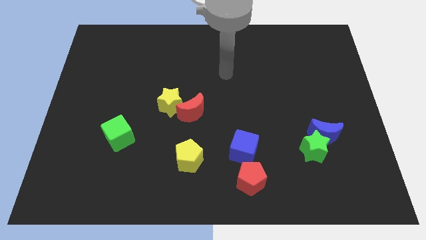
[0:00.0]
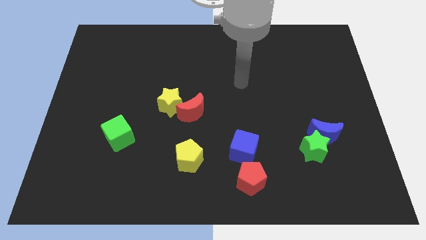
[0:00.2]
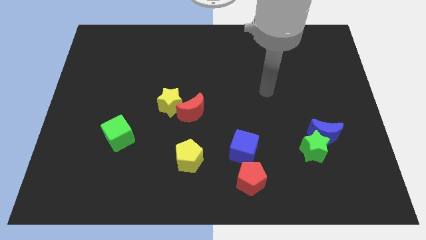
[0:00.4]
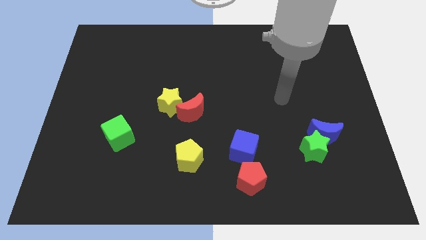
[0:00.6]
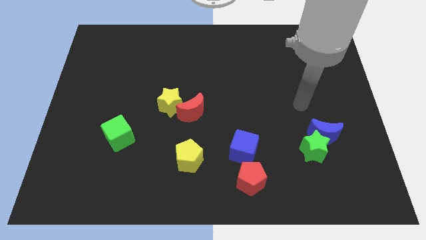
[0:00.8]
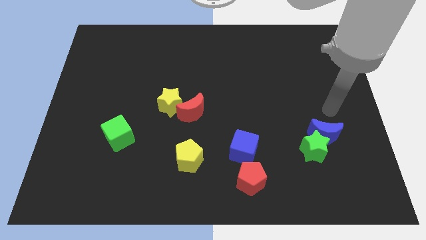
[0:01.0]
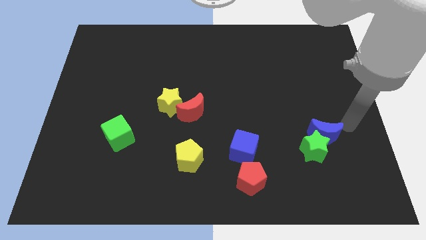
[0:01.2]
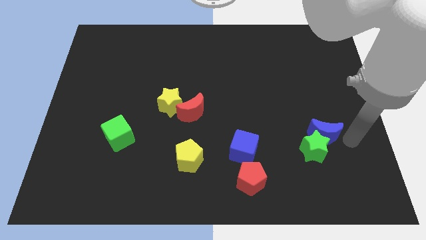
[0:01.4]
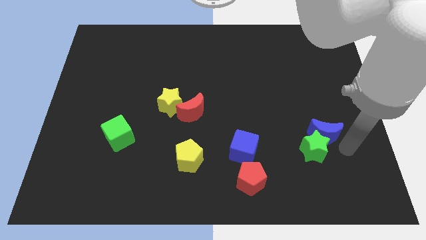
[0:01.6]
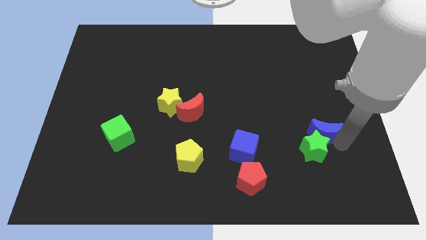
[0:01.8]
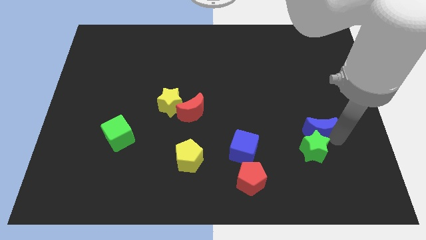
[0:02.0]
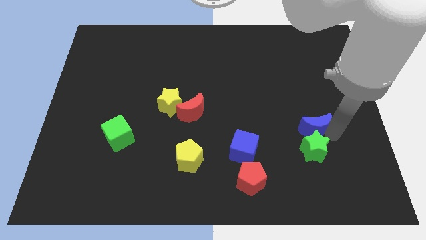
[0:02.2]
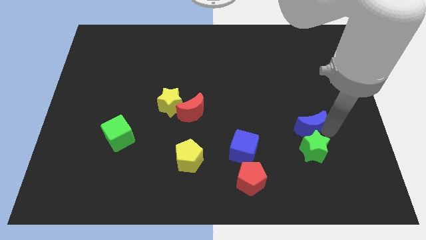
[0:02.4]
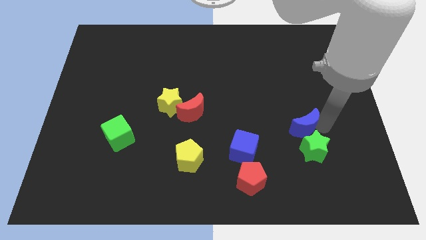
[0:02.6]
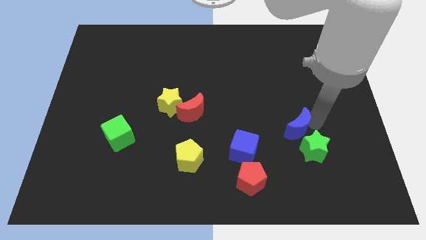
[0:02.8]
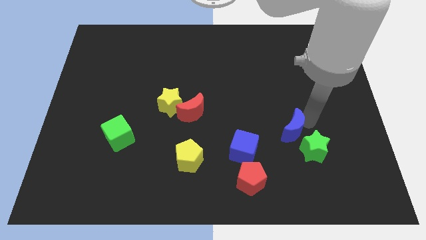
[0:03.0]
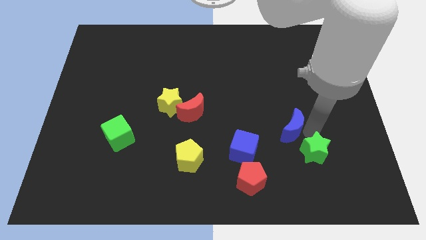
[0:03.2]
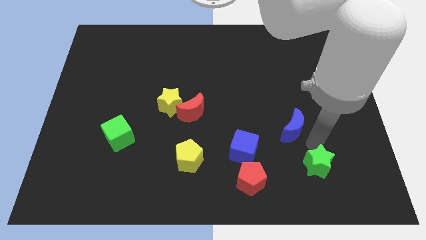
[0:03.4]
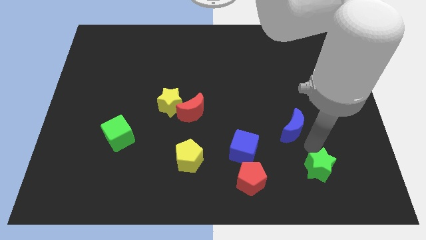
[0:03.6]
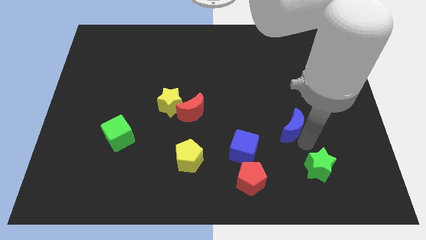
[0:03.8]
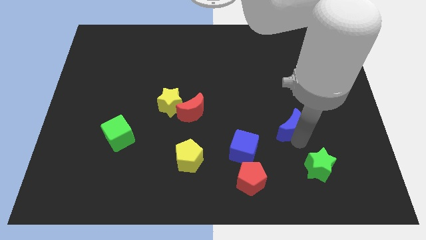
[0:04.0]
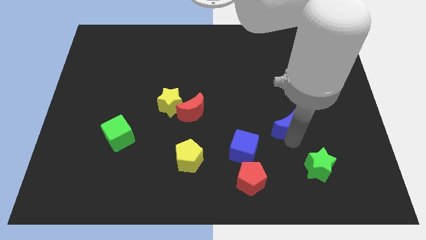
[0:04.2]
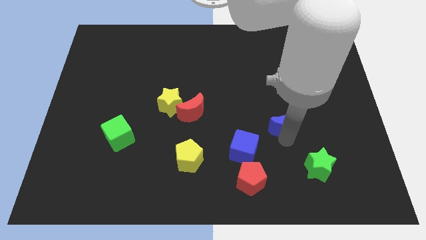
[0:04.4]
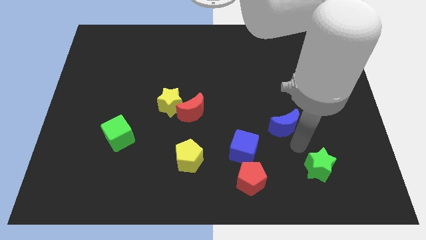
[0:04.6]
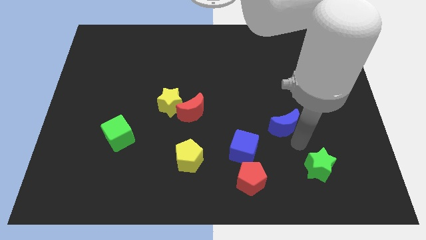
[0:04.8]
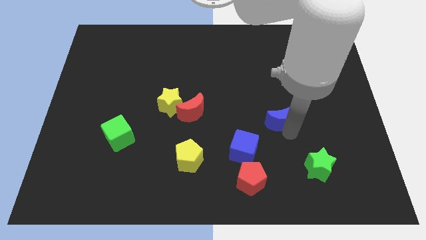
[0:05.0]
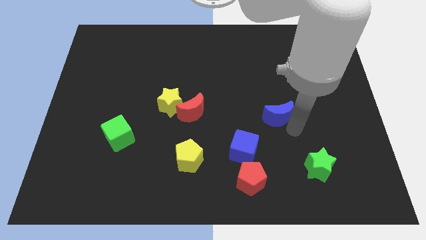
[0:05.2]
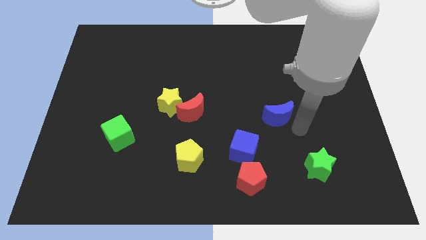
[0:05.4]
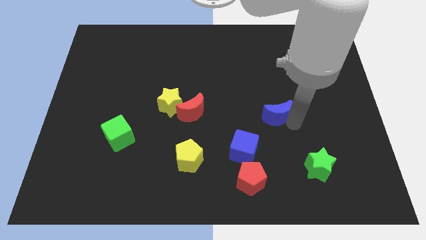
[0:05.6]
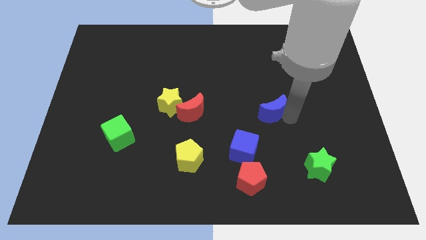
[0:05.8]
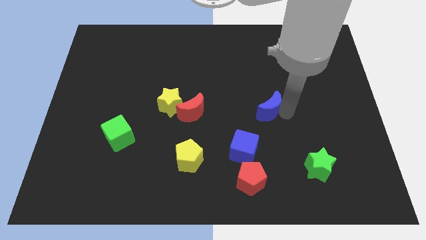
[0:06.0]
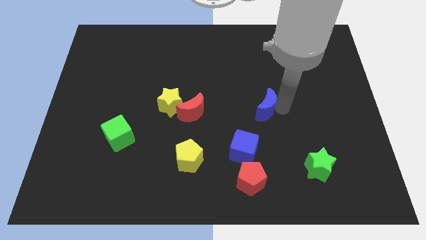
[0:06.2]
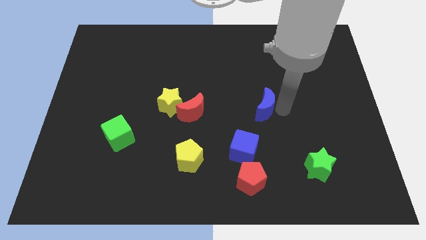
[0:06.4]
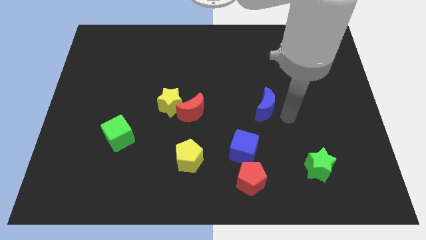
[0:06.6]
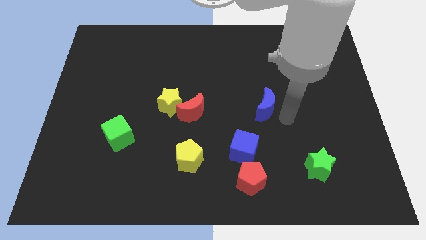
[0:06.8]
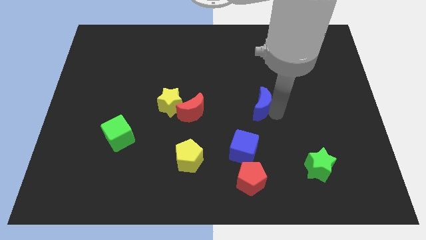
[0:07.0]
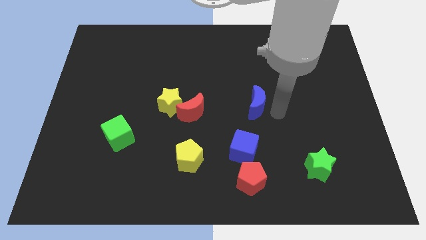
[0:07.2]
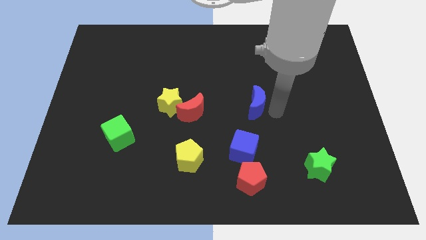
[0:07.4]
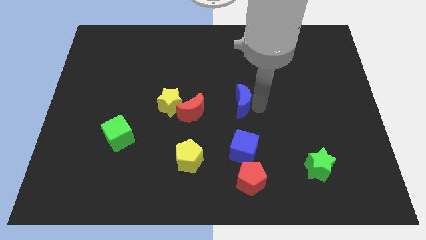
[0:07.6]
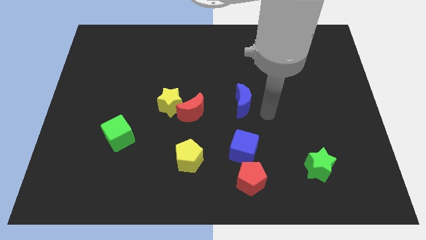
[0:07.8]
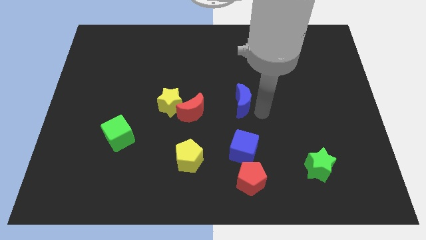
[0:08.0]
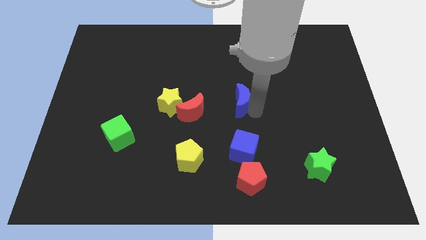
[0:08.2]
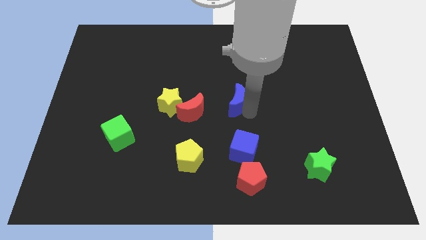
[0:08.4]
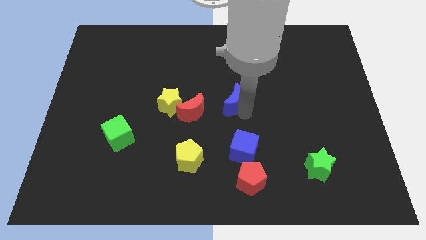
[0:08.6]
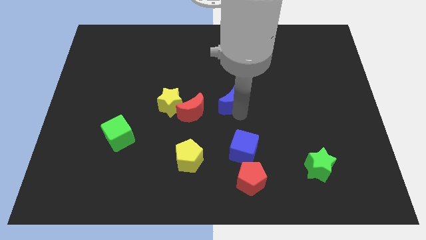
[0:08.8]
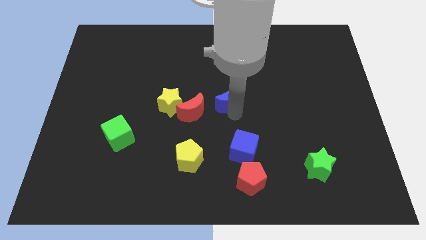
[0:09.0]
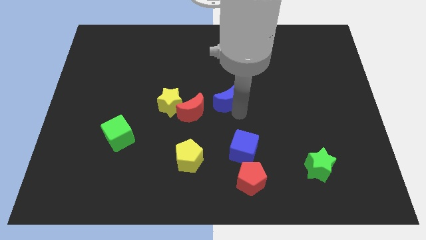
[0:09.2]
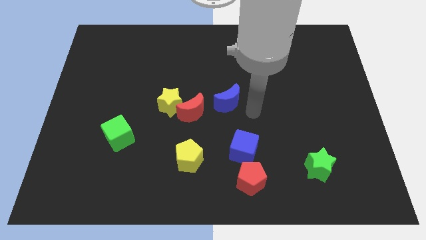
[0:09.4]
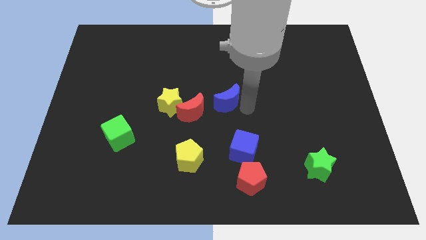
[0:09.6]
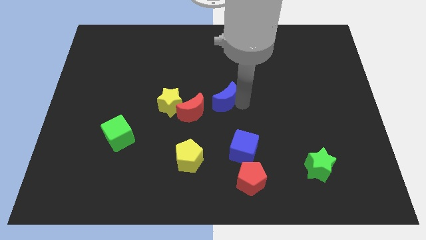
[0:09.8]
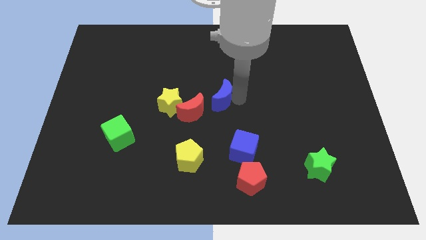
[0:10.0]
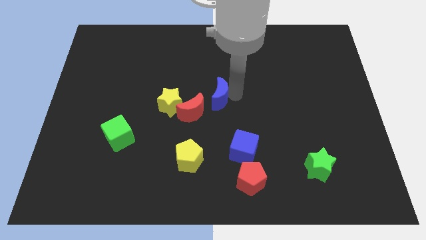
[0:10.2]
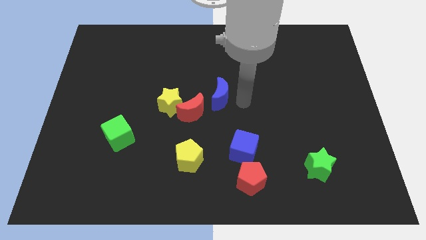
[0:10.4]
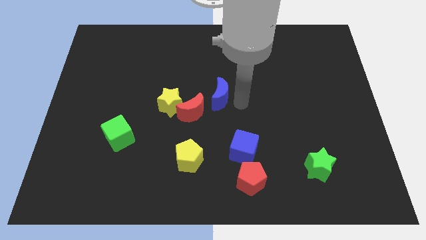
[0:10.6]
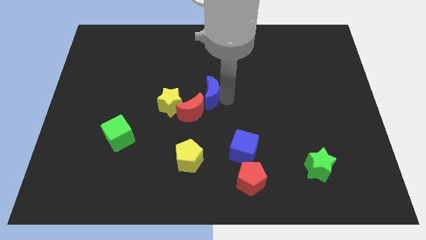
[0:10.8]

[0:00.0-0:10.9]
push the blue moon diagonally up and to the right of the yellow star

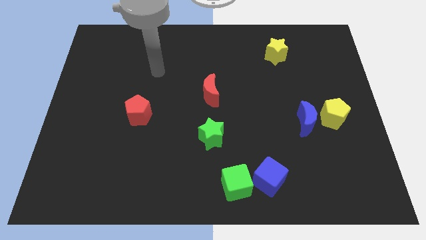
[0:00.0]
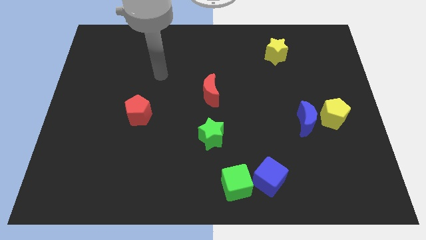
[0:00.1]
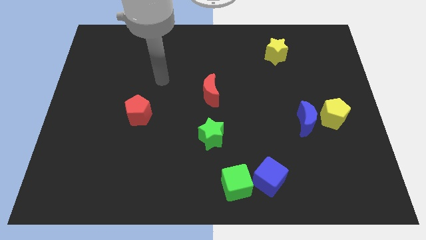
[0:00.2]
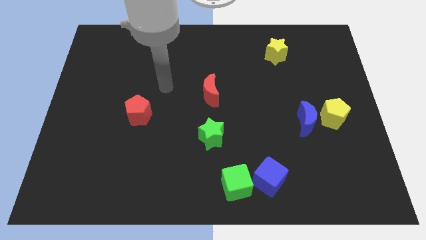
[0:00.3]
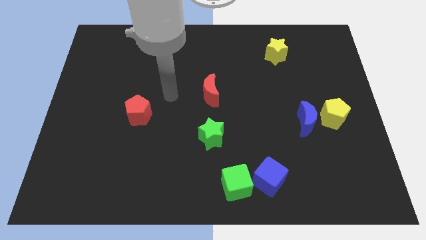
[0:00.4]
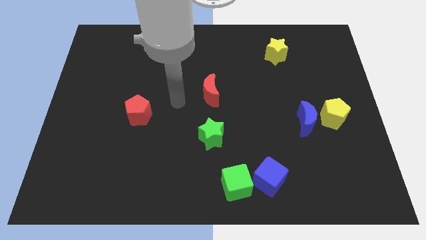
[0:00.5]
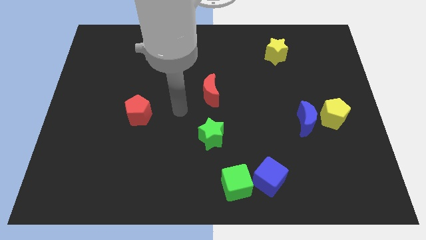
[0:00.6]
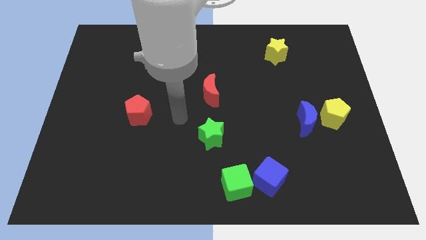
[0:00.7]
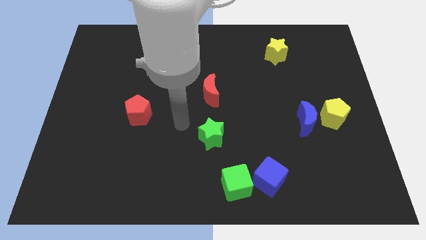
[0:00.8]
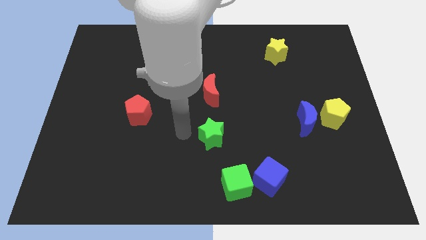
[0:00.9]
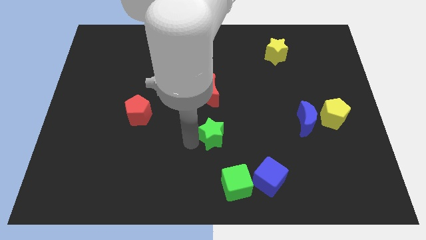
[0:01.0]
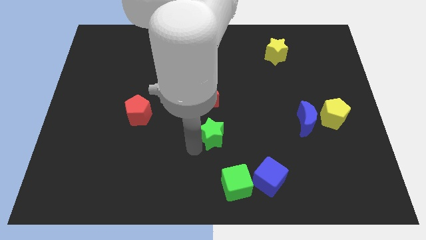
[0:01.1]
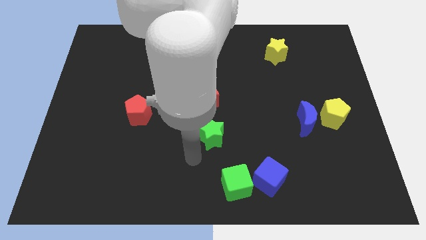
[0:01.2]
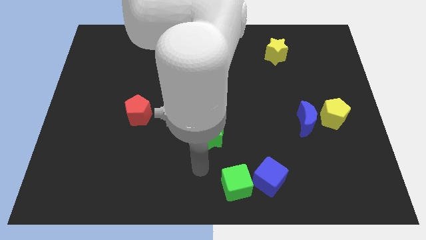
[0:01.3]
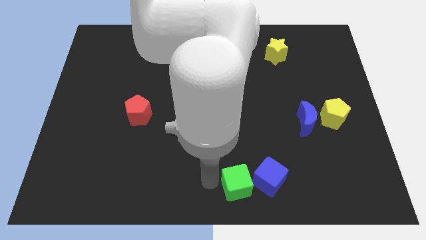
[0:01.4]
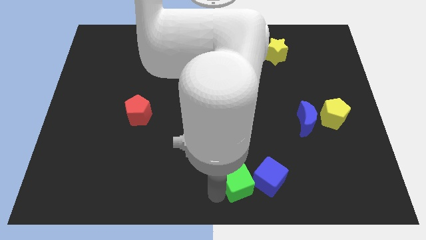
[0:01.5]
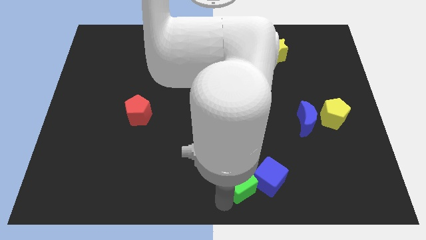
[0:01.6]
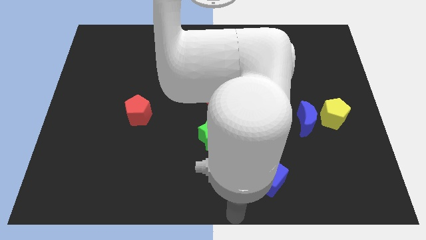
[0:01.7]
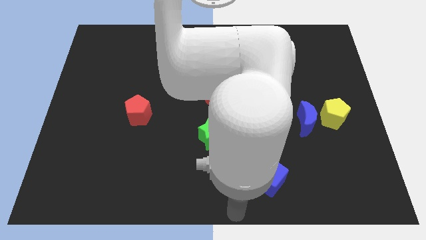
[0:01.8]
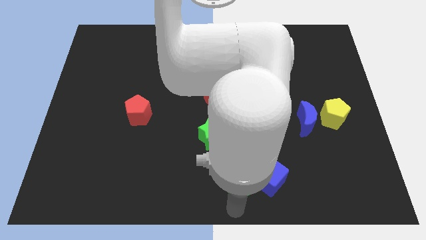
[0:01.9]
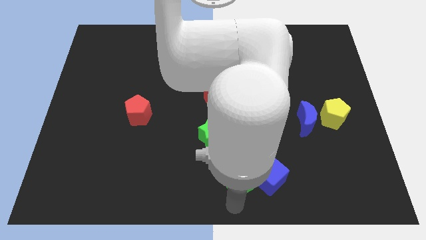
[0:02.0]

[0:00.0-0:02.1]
push the green cube diagonally up and to the left of the blue cube
